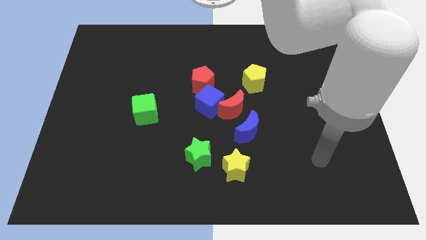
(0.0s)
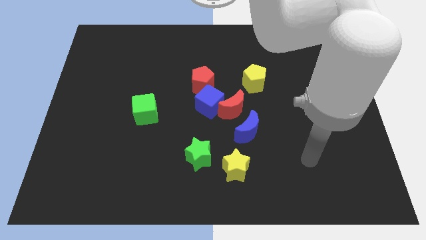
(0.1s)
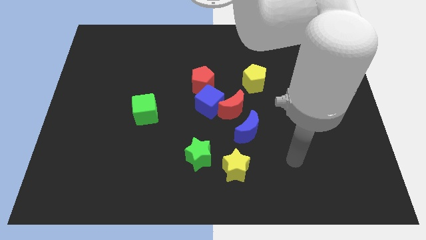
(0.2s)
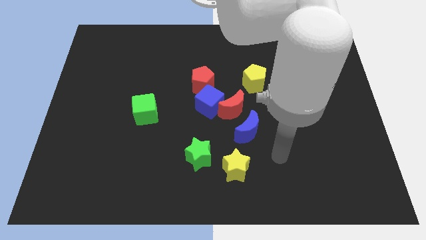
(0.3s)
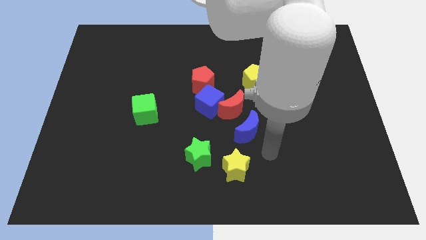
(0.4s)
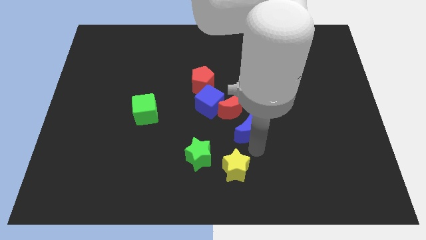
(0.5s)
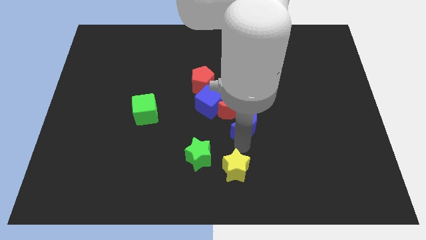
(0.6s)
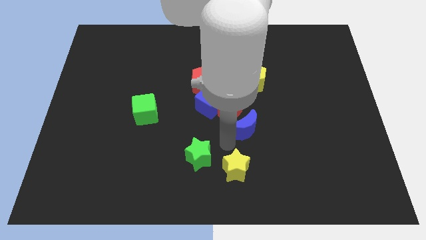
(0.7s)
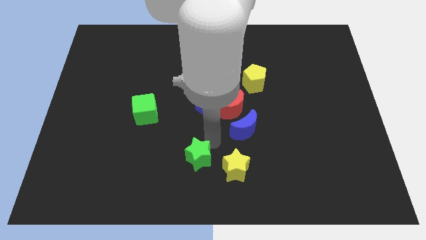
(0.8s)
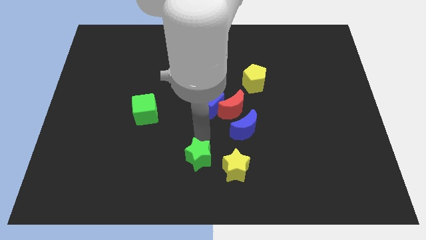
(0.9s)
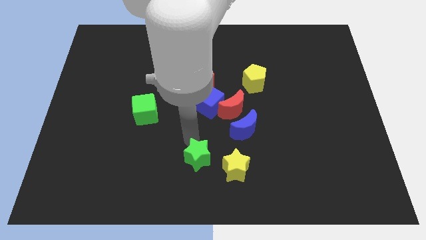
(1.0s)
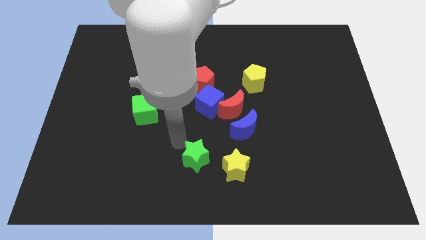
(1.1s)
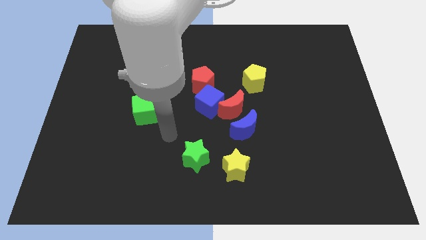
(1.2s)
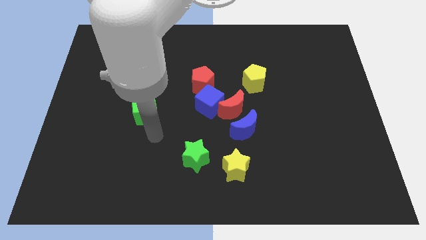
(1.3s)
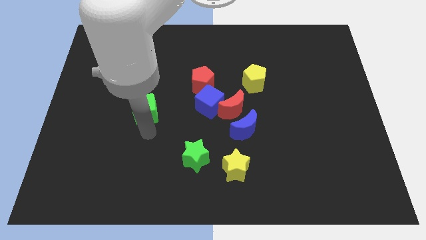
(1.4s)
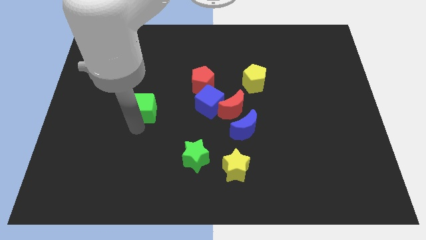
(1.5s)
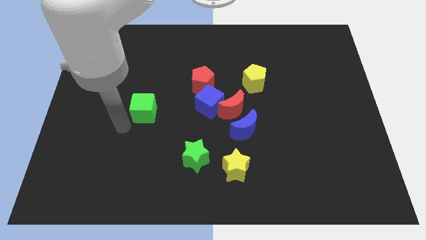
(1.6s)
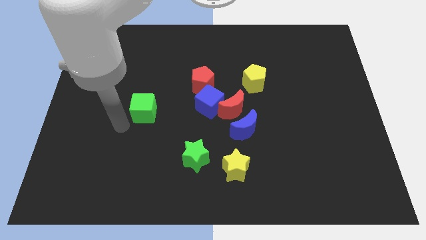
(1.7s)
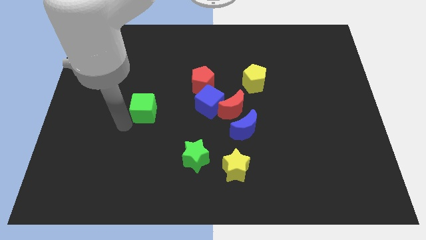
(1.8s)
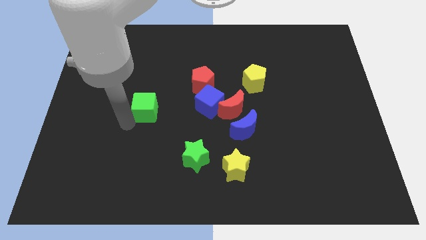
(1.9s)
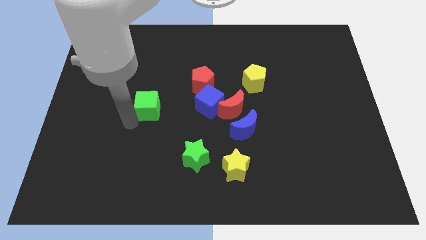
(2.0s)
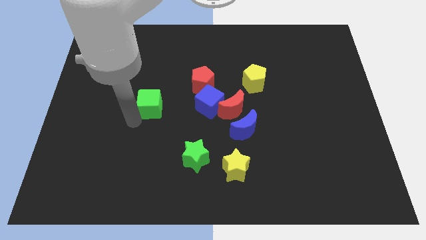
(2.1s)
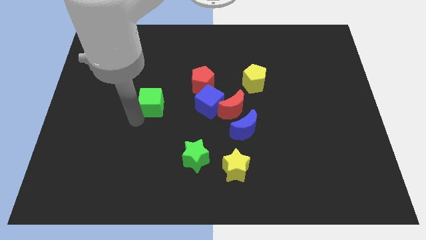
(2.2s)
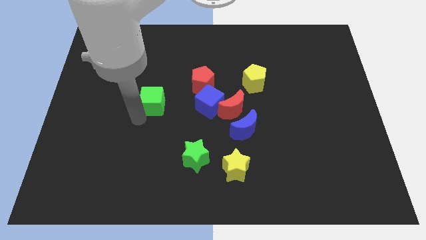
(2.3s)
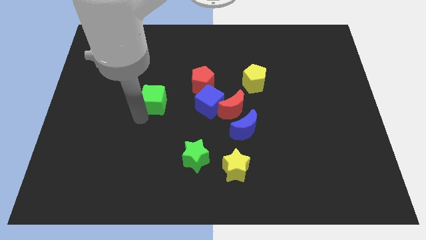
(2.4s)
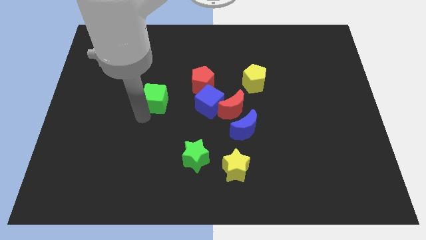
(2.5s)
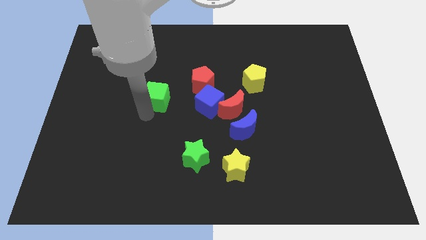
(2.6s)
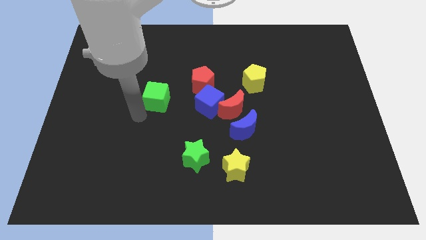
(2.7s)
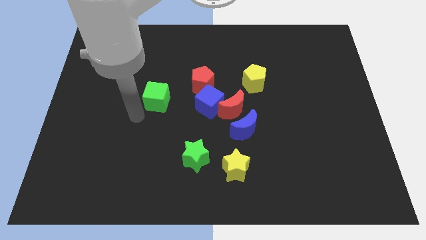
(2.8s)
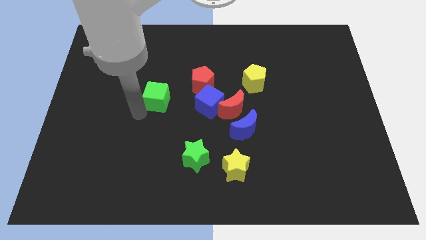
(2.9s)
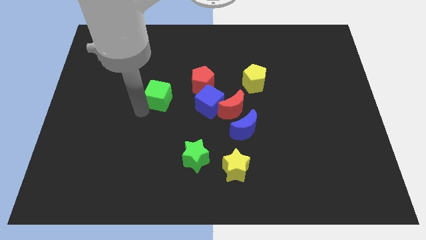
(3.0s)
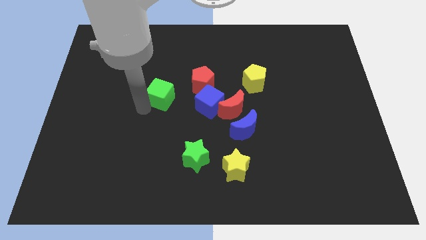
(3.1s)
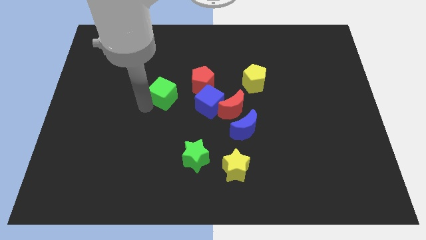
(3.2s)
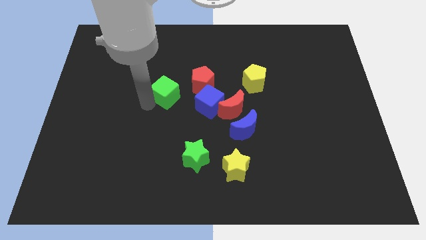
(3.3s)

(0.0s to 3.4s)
slide the green cube up and right diagonally a bit

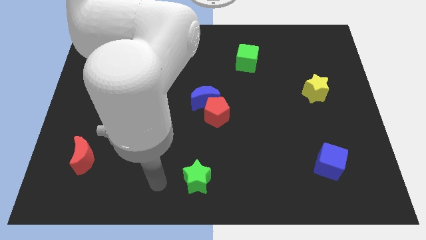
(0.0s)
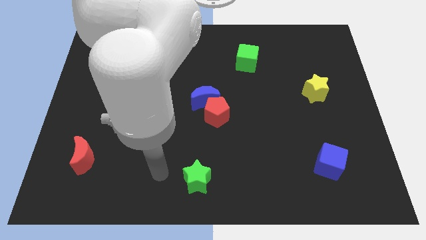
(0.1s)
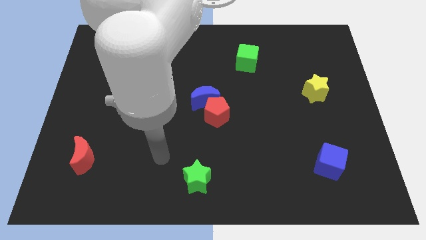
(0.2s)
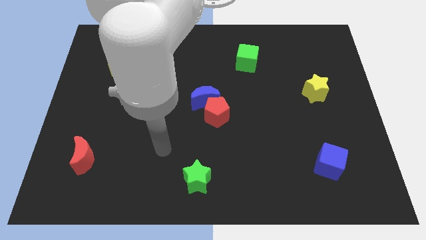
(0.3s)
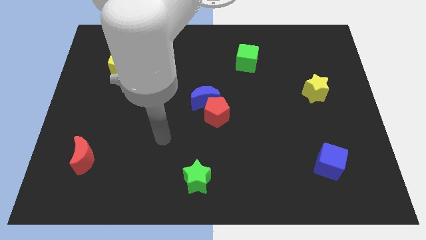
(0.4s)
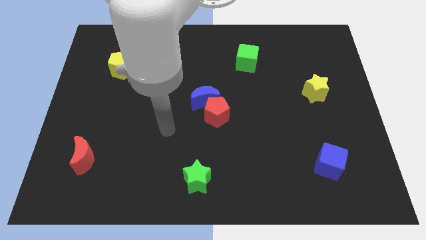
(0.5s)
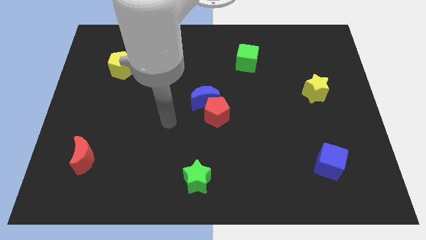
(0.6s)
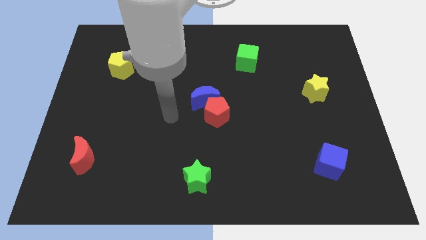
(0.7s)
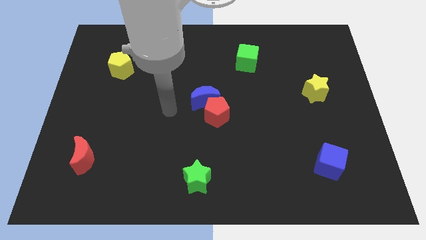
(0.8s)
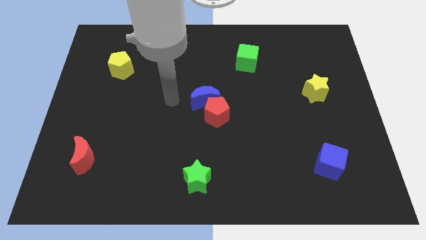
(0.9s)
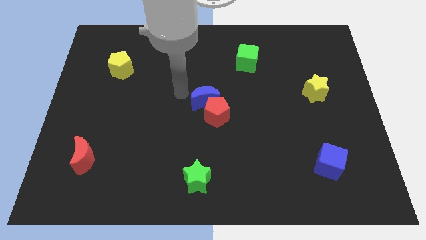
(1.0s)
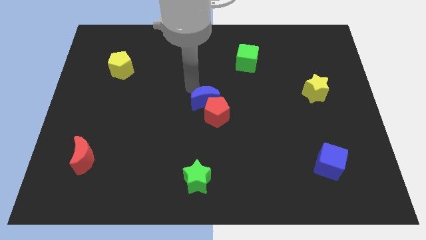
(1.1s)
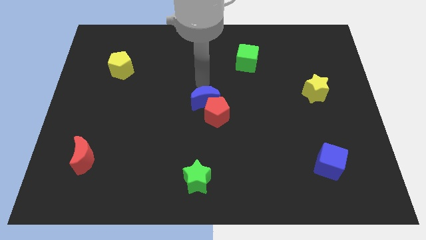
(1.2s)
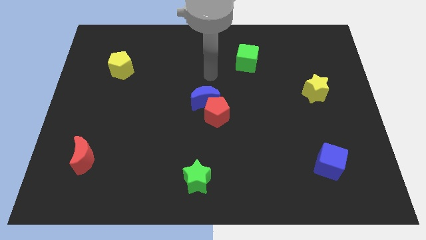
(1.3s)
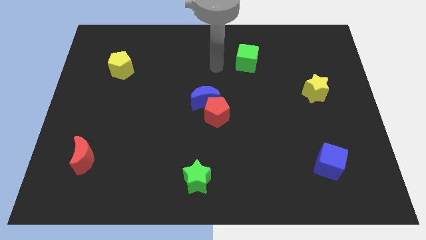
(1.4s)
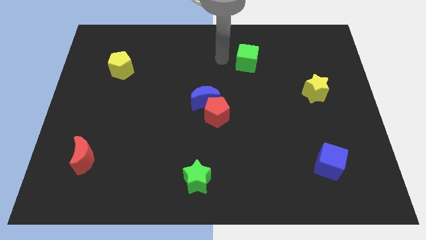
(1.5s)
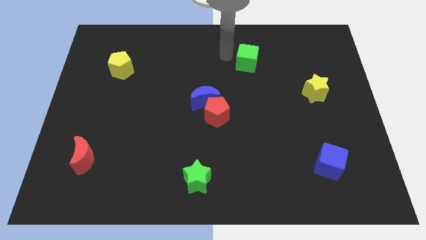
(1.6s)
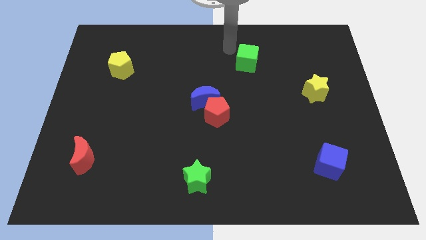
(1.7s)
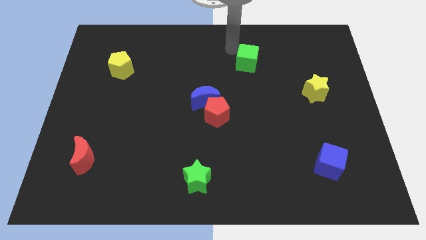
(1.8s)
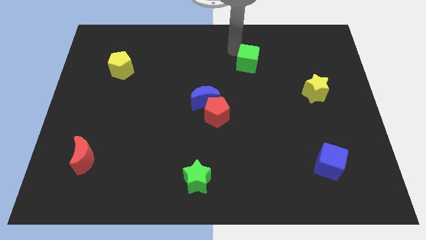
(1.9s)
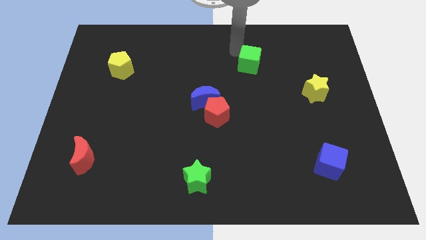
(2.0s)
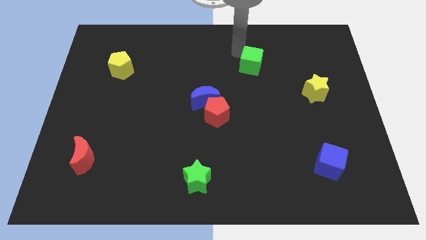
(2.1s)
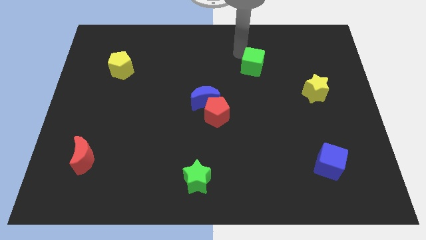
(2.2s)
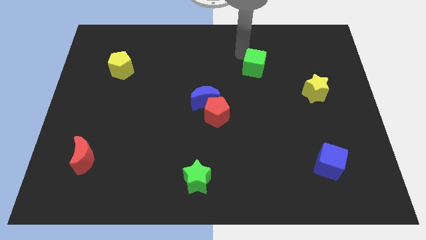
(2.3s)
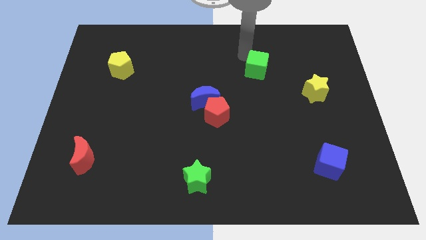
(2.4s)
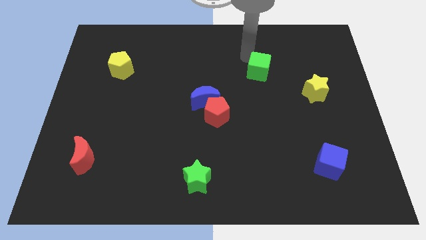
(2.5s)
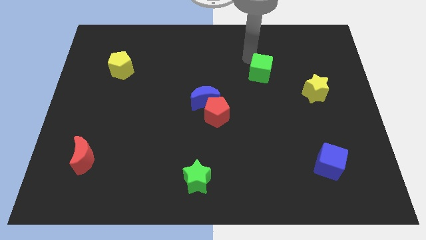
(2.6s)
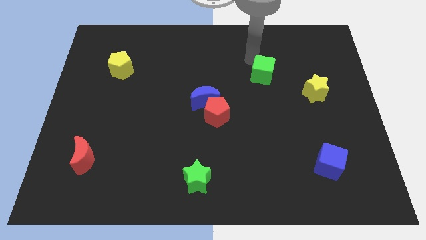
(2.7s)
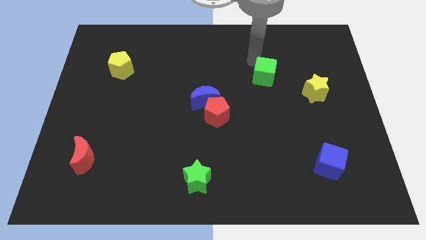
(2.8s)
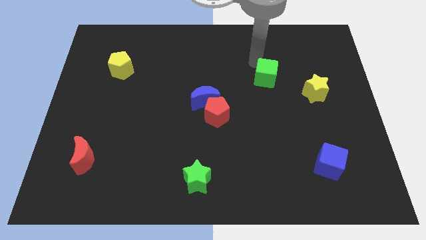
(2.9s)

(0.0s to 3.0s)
push the green cube somewhat diagonally down and right

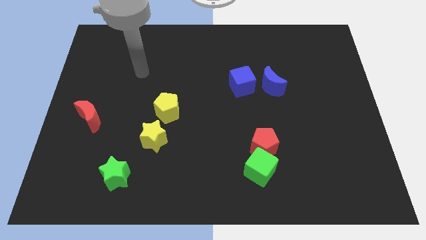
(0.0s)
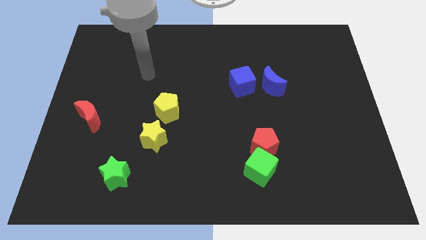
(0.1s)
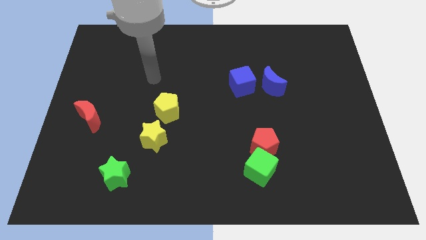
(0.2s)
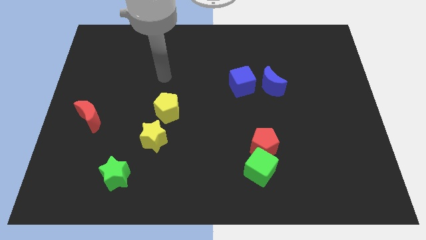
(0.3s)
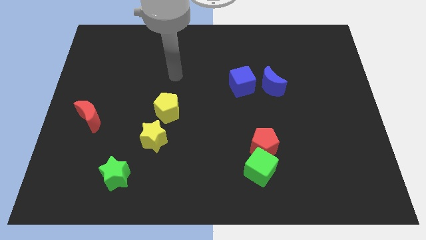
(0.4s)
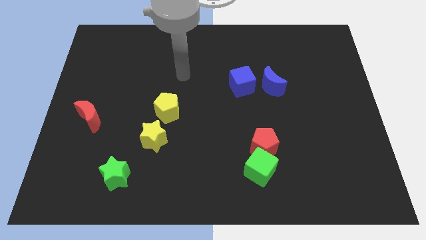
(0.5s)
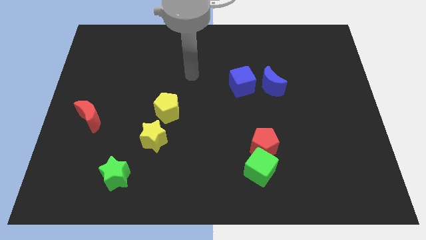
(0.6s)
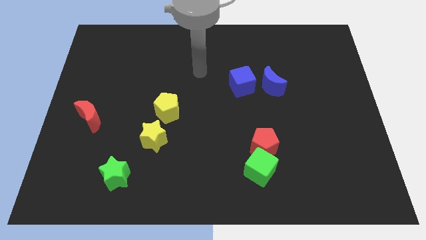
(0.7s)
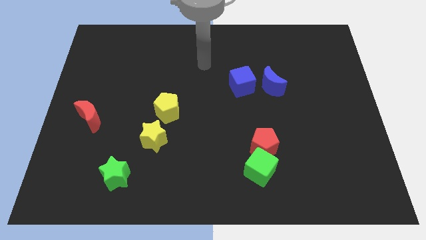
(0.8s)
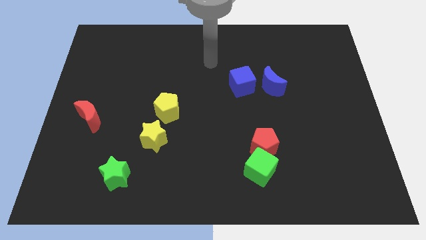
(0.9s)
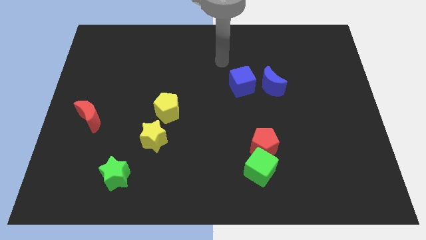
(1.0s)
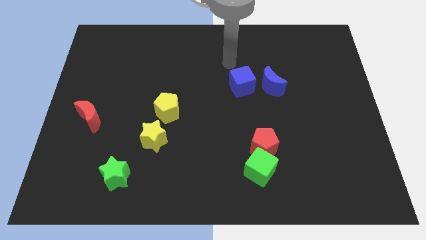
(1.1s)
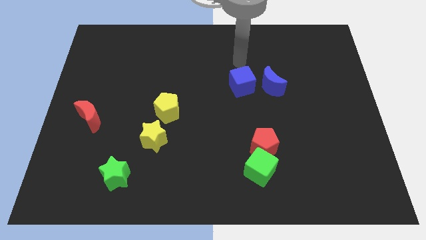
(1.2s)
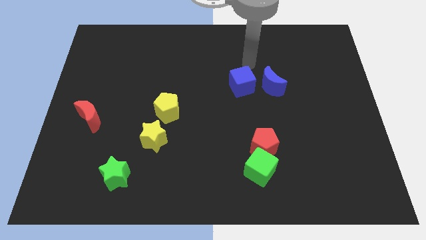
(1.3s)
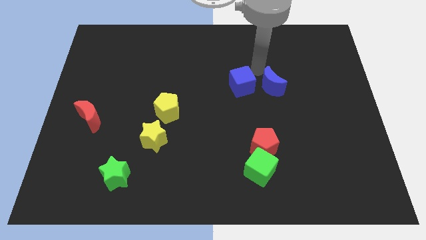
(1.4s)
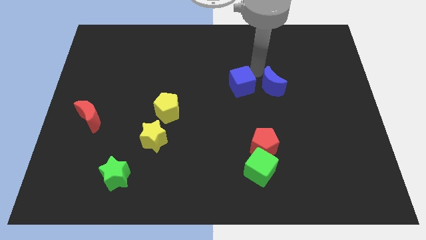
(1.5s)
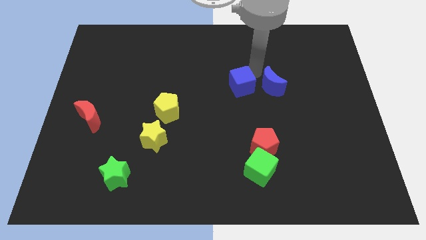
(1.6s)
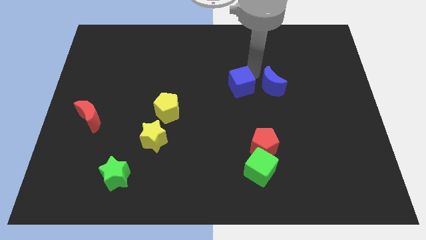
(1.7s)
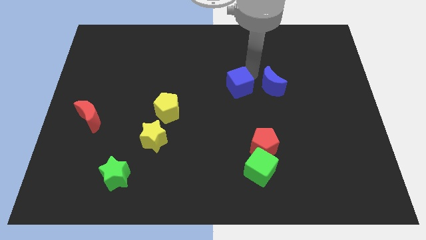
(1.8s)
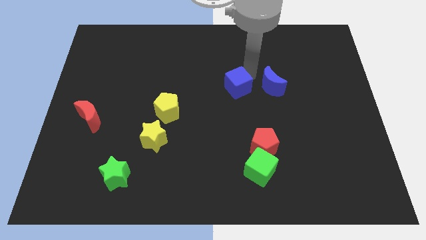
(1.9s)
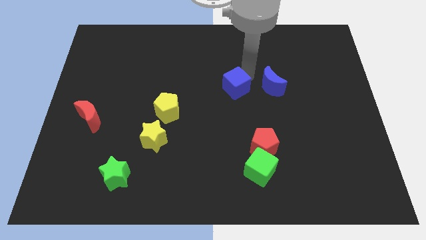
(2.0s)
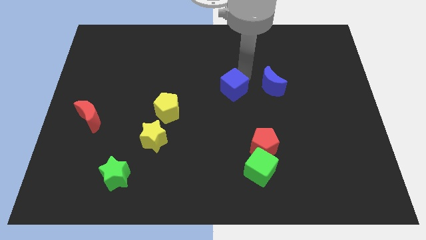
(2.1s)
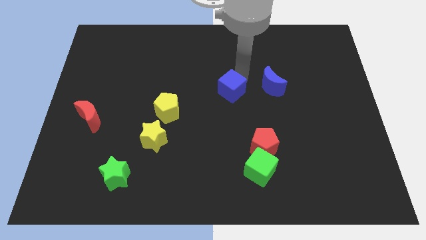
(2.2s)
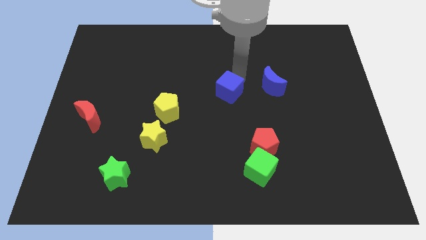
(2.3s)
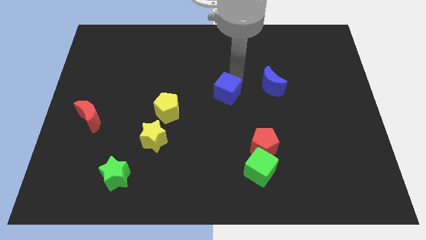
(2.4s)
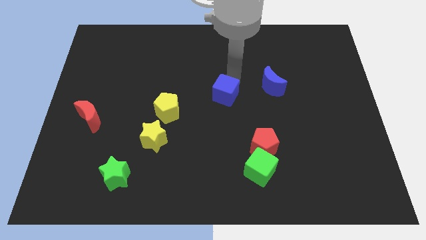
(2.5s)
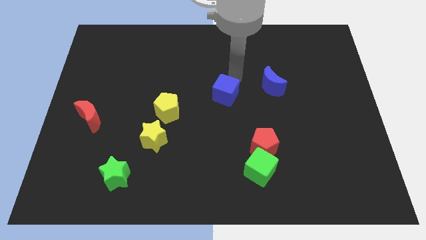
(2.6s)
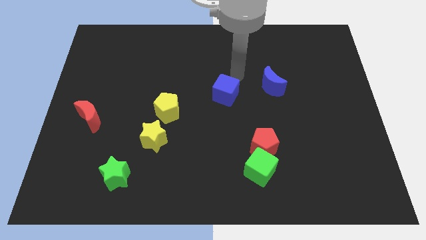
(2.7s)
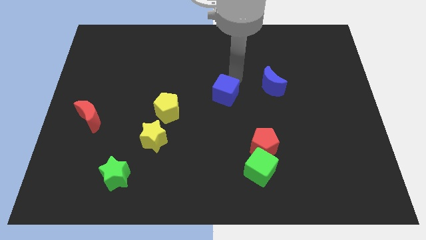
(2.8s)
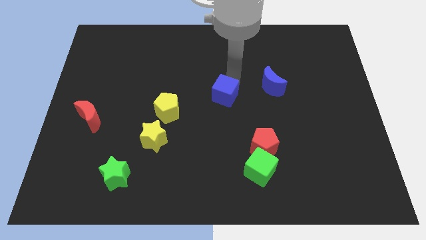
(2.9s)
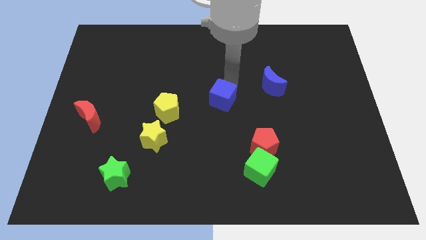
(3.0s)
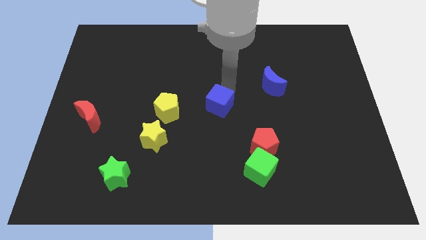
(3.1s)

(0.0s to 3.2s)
slightly push the blue cube down and to the left diagonally
